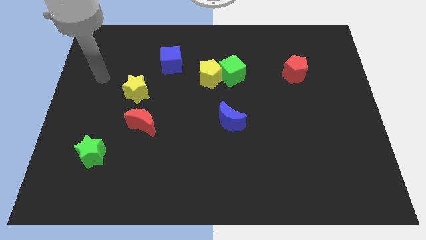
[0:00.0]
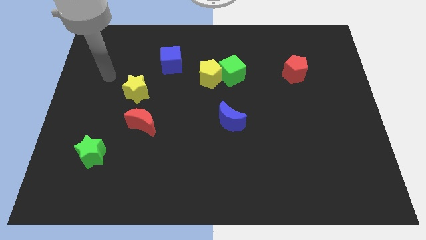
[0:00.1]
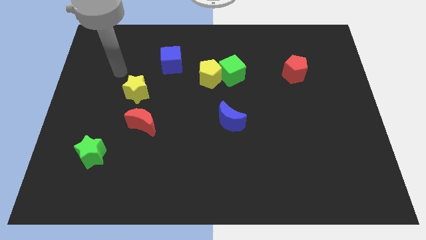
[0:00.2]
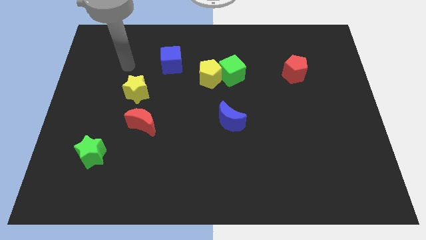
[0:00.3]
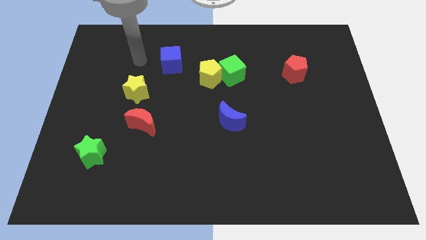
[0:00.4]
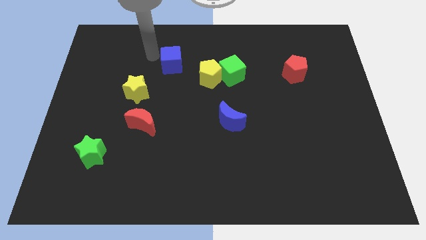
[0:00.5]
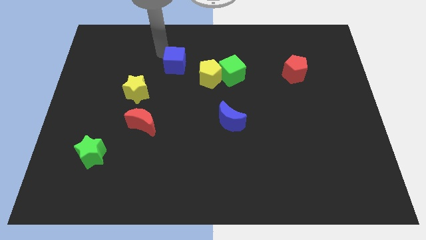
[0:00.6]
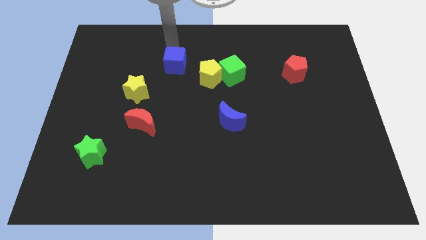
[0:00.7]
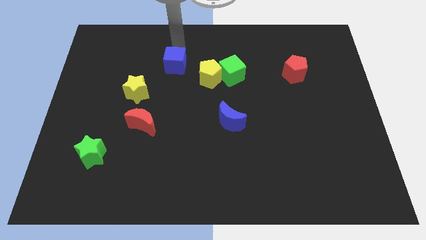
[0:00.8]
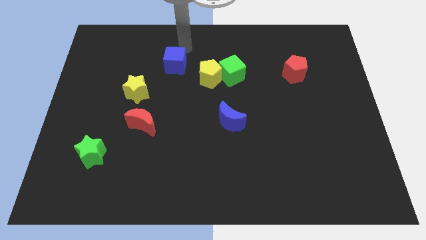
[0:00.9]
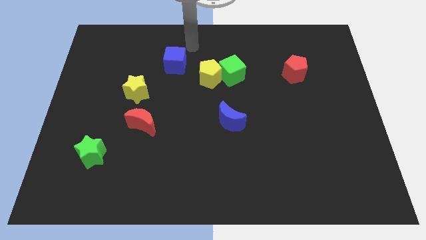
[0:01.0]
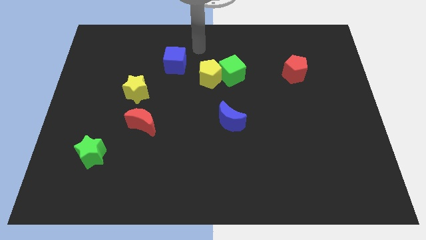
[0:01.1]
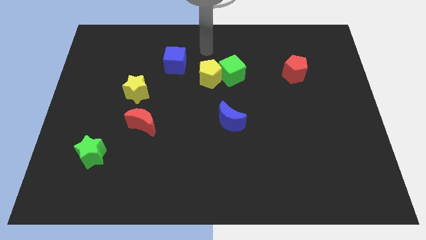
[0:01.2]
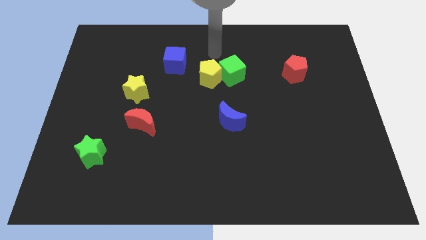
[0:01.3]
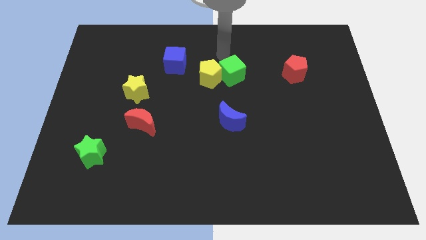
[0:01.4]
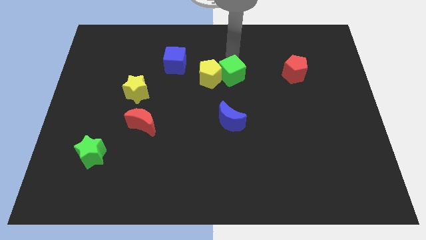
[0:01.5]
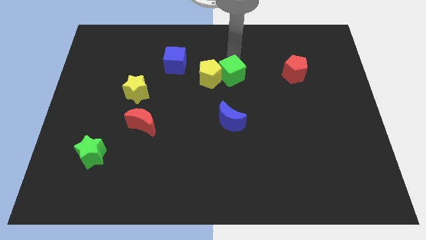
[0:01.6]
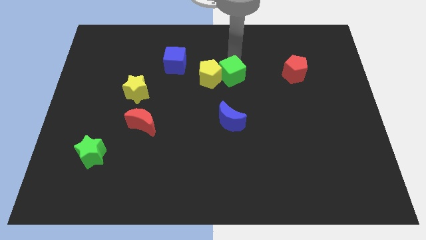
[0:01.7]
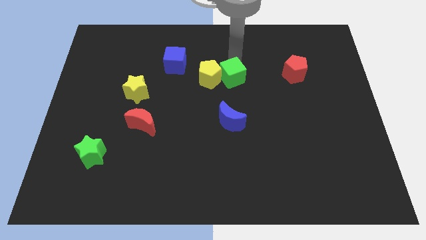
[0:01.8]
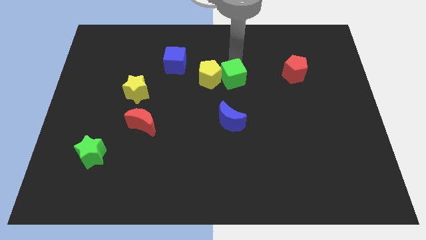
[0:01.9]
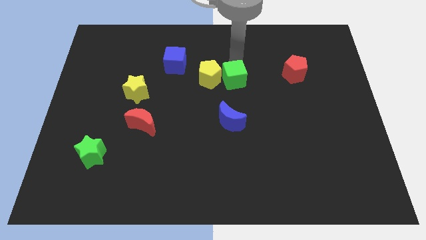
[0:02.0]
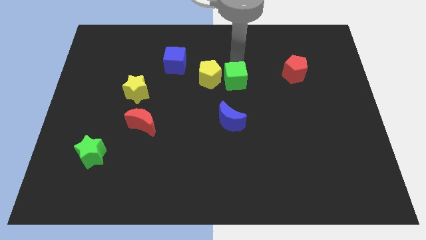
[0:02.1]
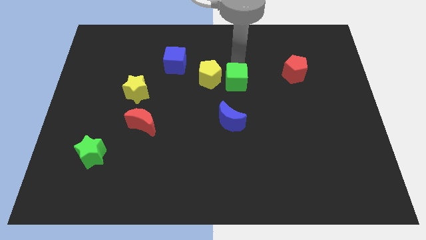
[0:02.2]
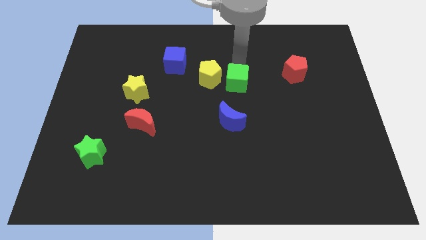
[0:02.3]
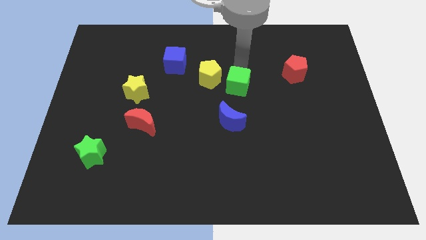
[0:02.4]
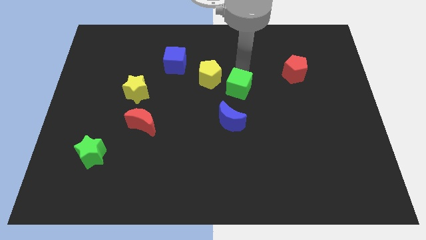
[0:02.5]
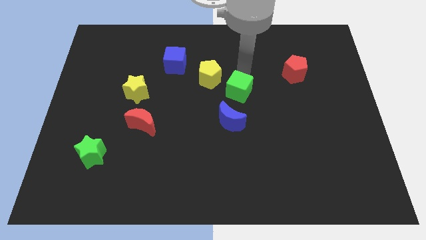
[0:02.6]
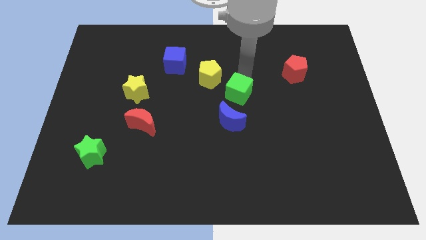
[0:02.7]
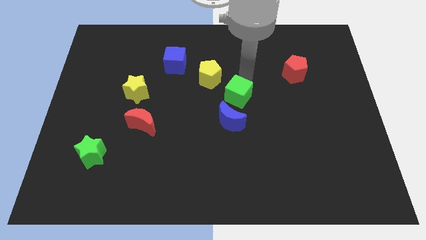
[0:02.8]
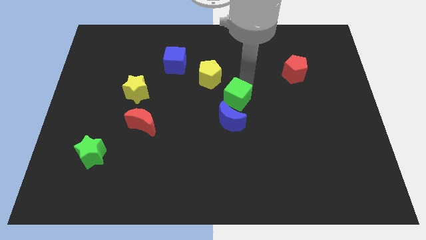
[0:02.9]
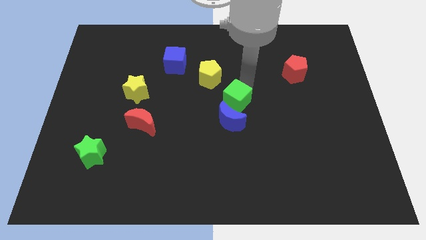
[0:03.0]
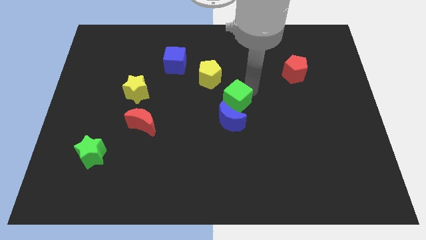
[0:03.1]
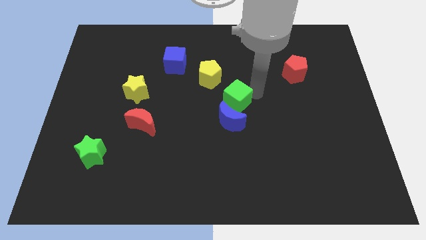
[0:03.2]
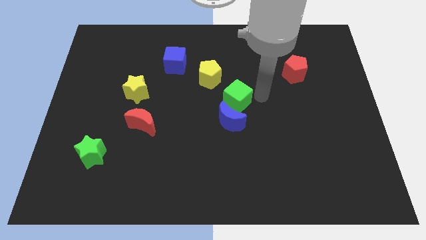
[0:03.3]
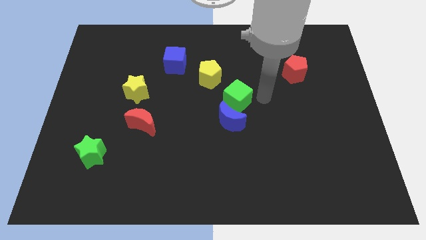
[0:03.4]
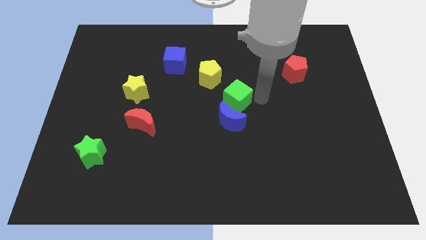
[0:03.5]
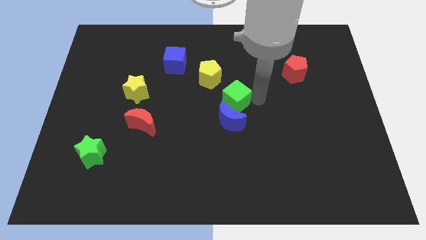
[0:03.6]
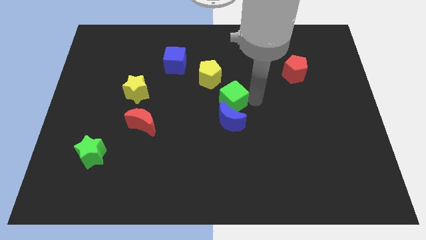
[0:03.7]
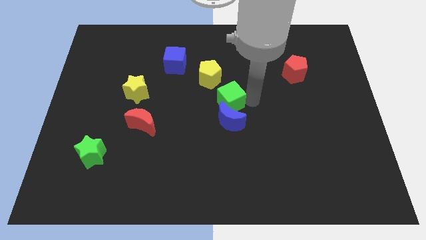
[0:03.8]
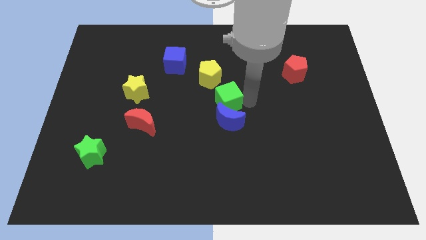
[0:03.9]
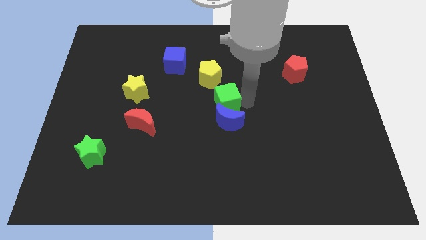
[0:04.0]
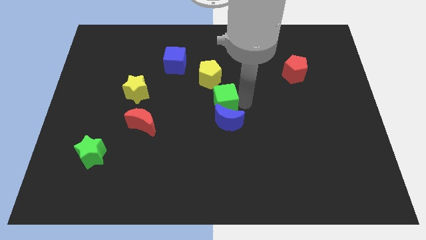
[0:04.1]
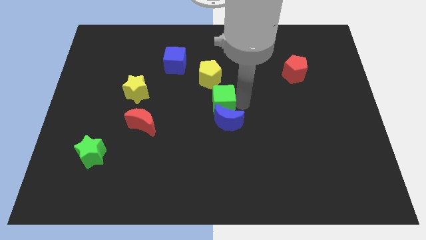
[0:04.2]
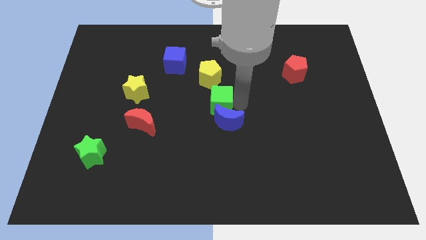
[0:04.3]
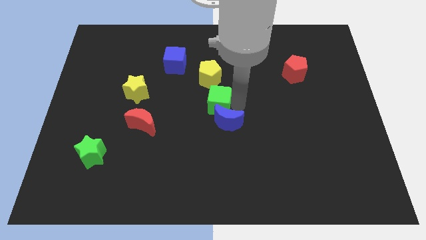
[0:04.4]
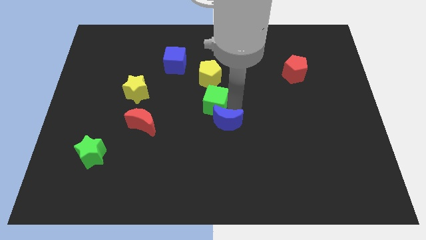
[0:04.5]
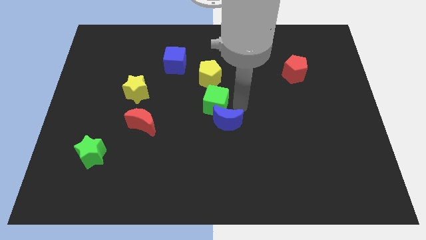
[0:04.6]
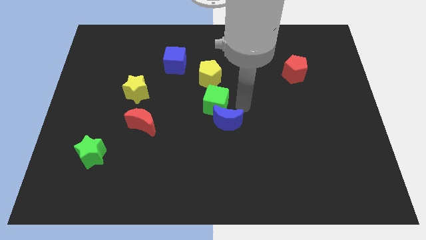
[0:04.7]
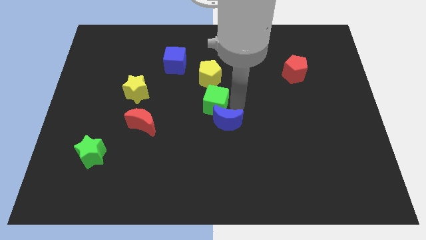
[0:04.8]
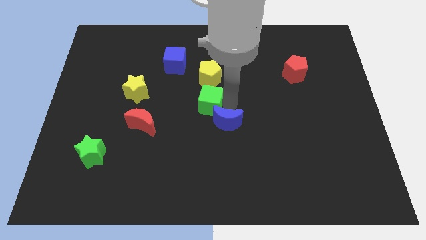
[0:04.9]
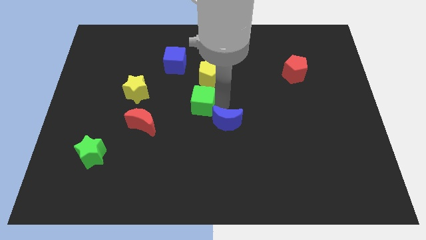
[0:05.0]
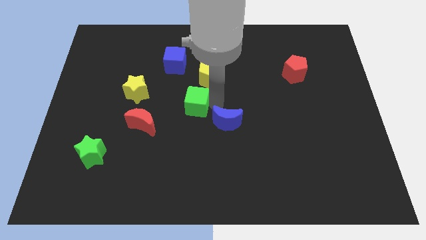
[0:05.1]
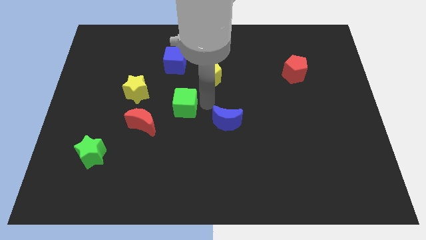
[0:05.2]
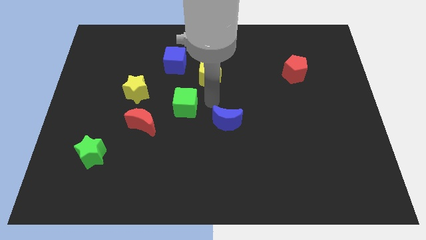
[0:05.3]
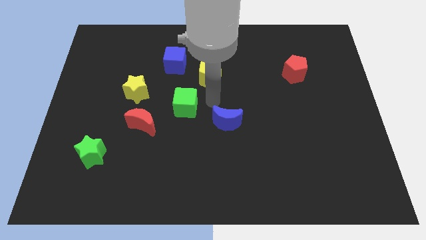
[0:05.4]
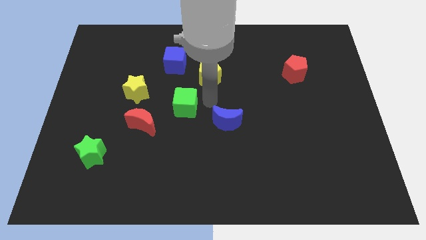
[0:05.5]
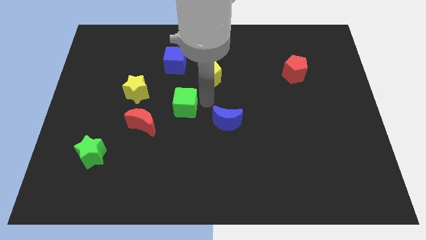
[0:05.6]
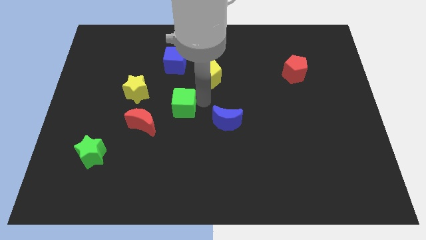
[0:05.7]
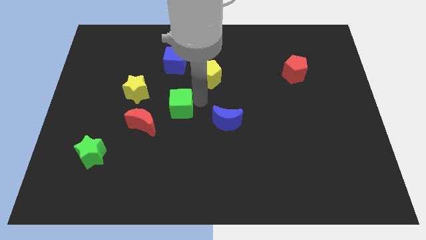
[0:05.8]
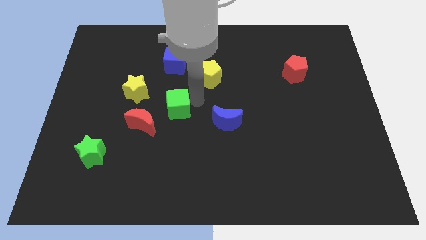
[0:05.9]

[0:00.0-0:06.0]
slide the green cube to the bottom right of the yellow star

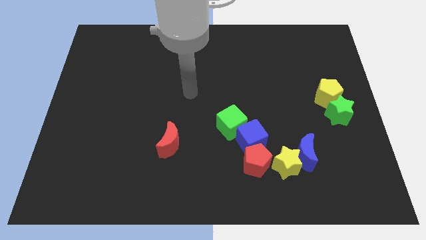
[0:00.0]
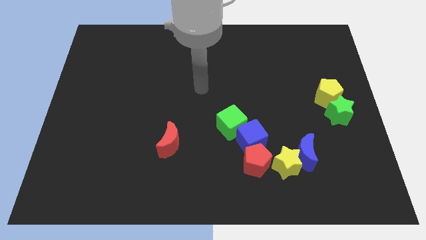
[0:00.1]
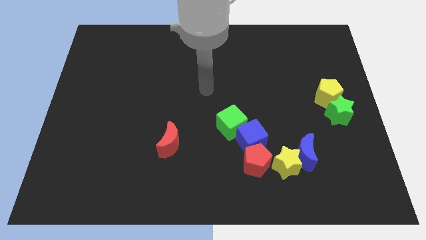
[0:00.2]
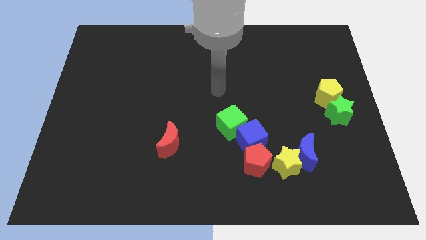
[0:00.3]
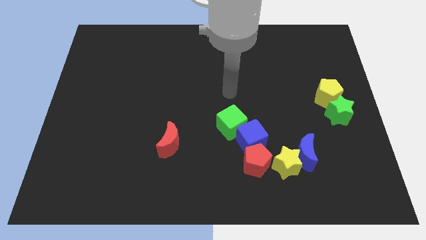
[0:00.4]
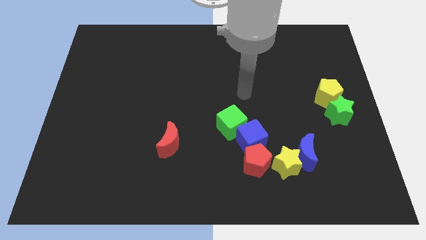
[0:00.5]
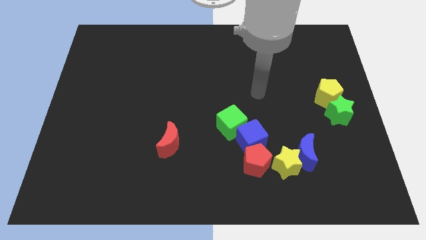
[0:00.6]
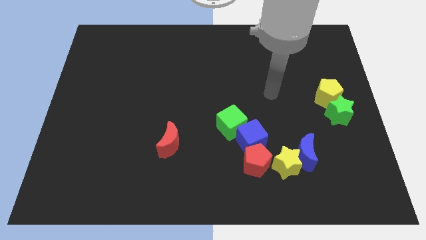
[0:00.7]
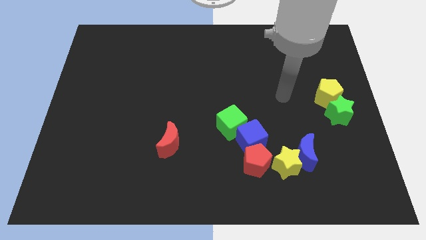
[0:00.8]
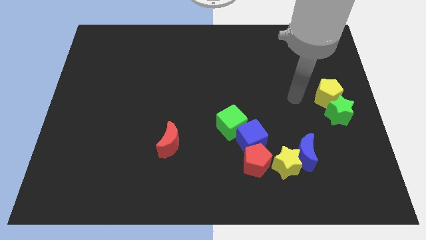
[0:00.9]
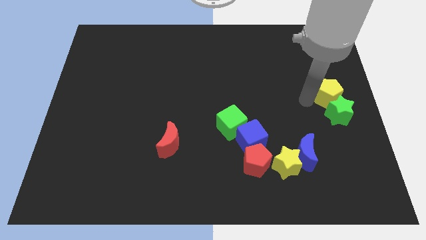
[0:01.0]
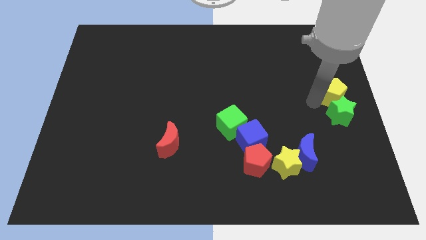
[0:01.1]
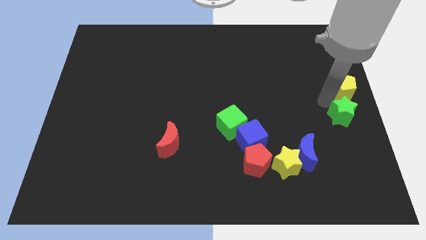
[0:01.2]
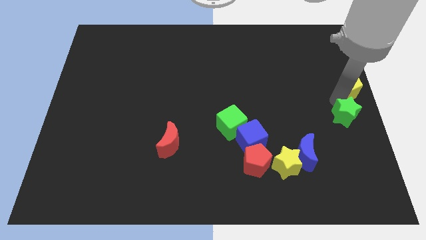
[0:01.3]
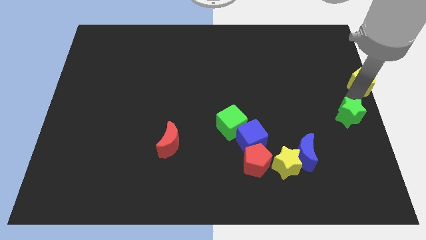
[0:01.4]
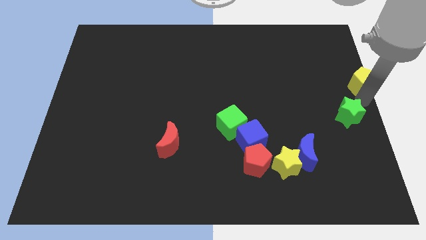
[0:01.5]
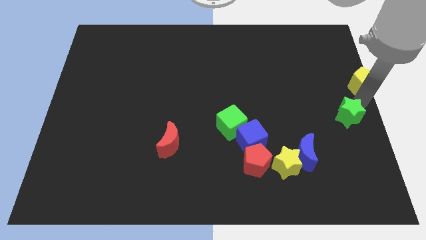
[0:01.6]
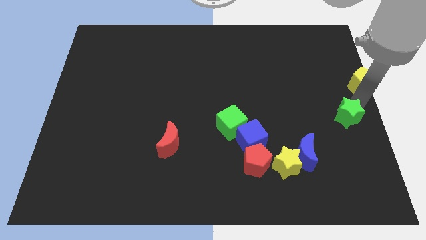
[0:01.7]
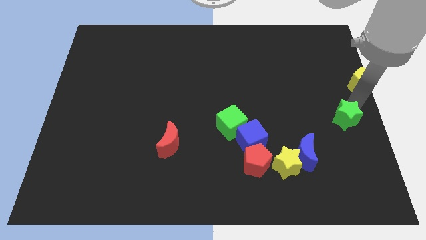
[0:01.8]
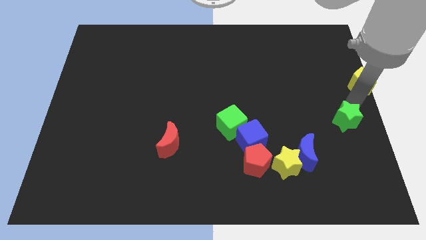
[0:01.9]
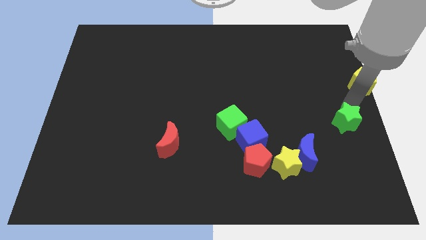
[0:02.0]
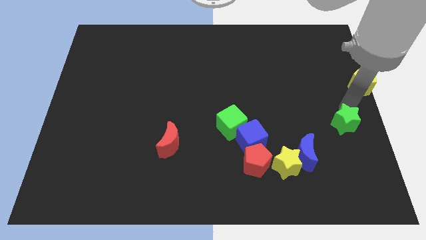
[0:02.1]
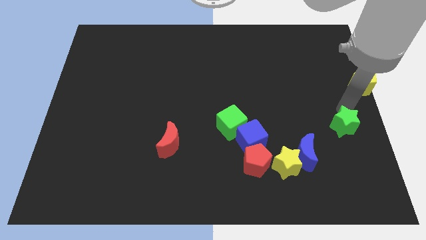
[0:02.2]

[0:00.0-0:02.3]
push the green star to the top right side of the blue moon
